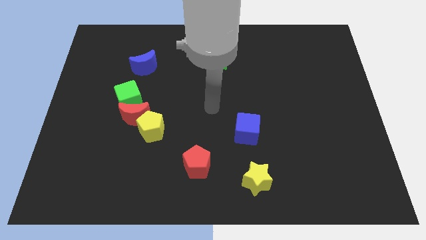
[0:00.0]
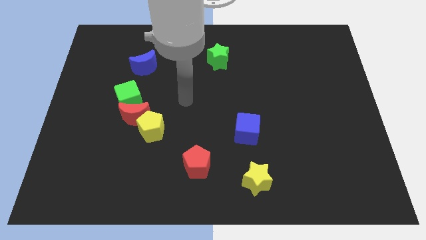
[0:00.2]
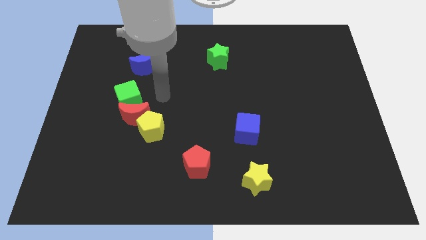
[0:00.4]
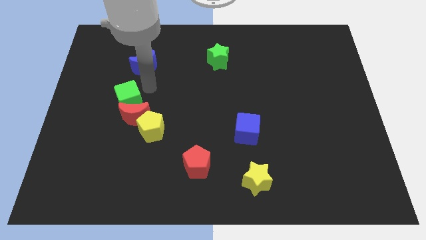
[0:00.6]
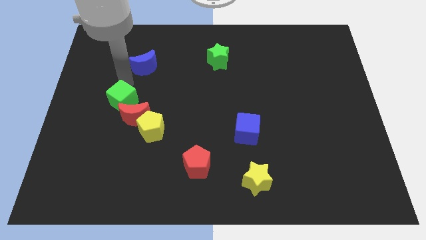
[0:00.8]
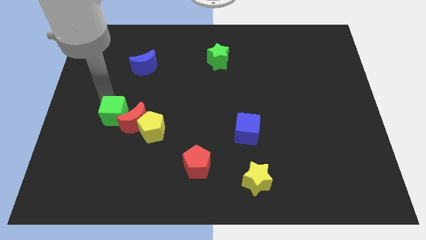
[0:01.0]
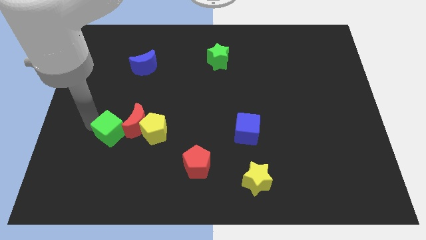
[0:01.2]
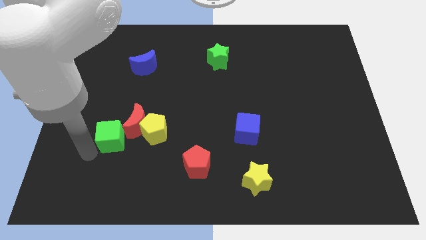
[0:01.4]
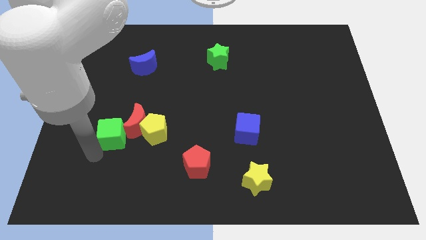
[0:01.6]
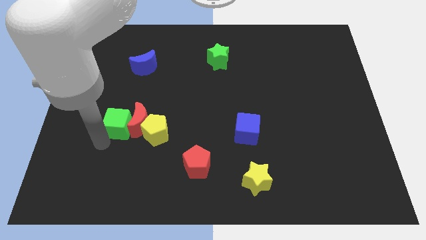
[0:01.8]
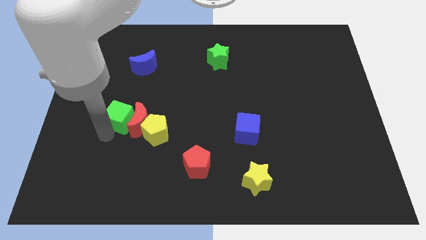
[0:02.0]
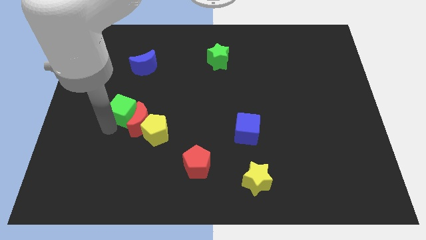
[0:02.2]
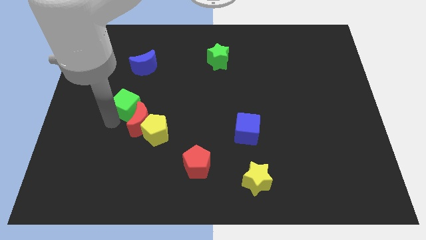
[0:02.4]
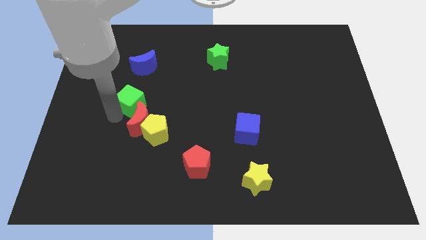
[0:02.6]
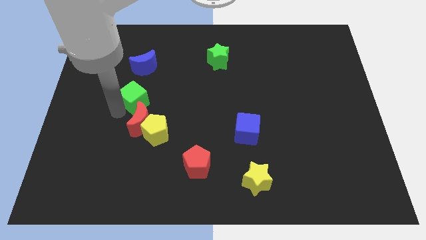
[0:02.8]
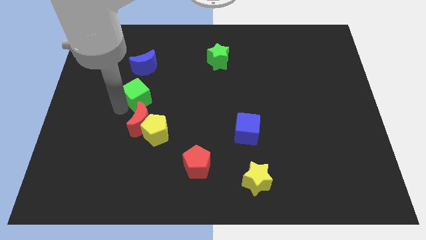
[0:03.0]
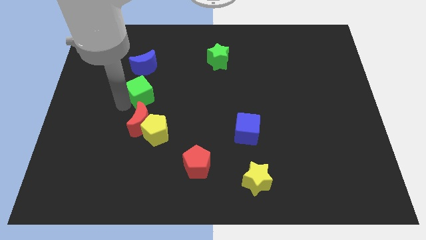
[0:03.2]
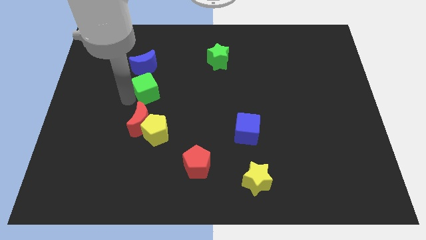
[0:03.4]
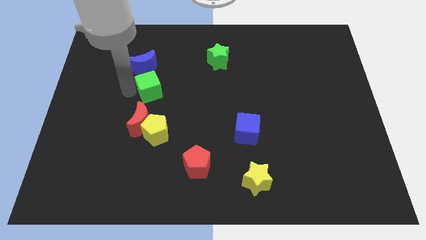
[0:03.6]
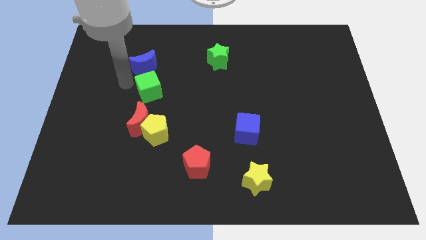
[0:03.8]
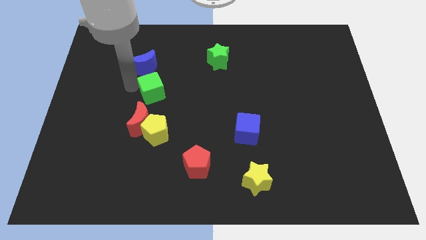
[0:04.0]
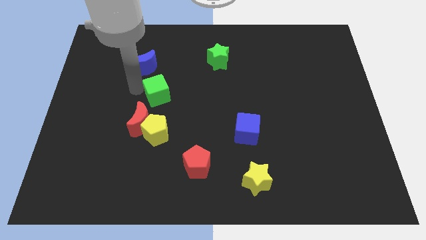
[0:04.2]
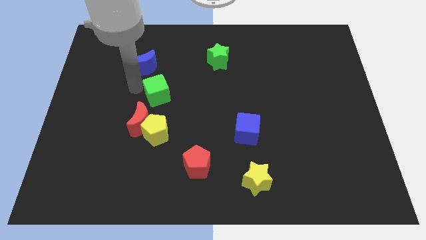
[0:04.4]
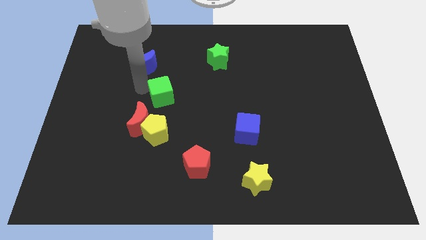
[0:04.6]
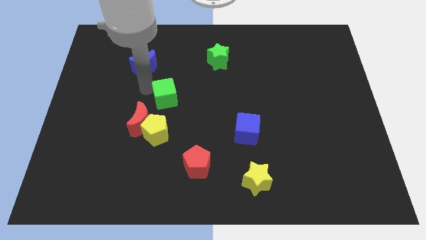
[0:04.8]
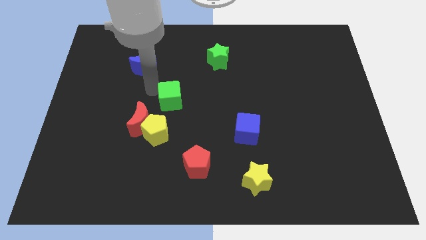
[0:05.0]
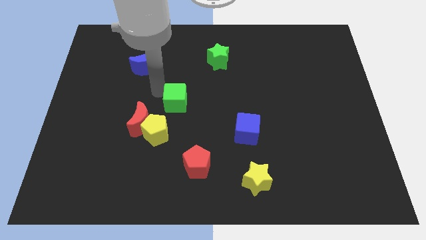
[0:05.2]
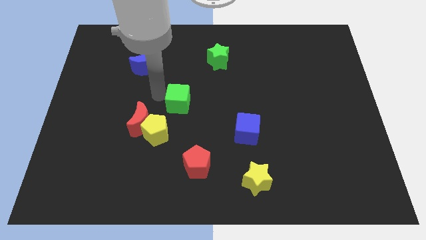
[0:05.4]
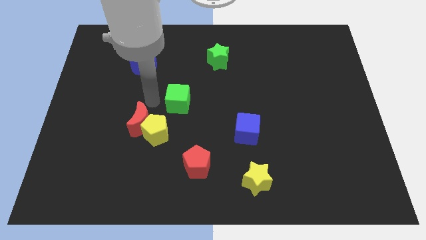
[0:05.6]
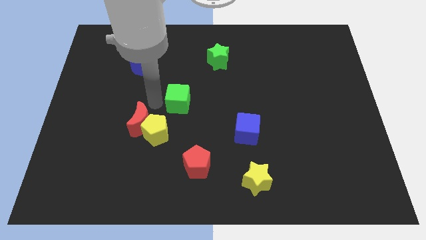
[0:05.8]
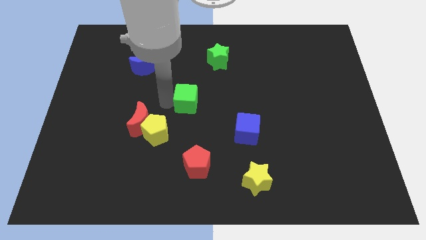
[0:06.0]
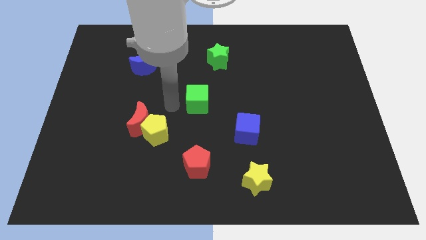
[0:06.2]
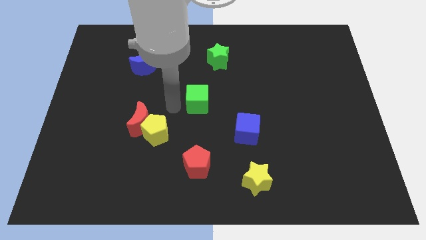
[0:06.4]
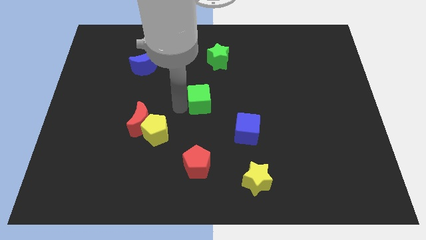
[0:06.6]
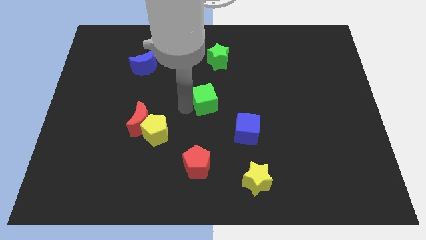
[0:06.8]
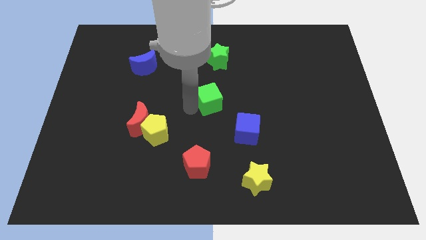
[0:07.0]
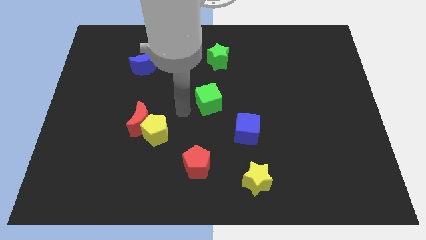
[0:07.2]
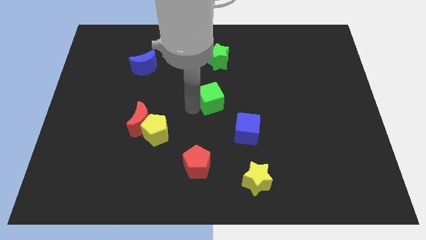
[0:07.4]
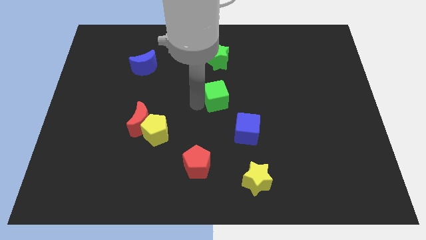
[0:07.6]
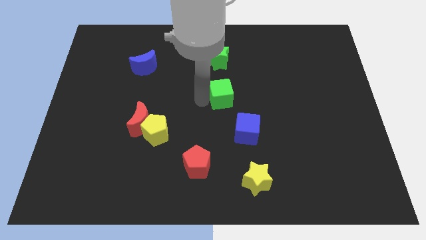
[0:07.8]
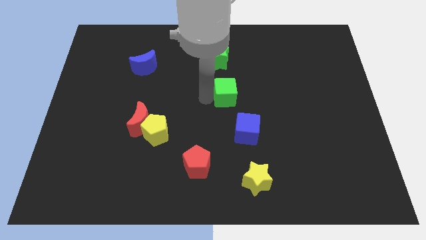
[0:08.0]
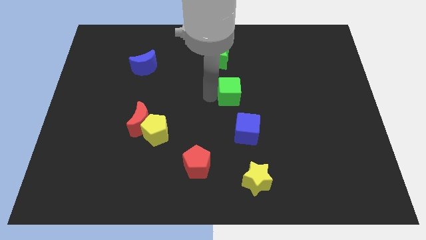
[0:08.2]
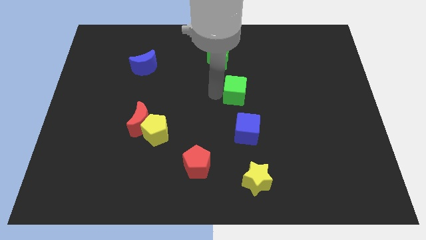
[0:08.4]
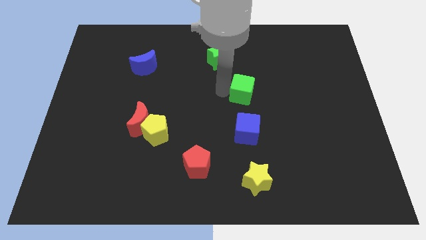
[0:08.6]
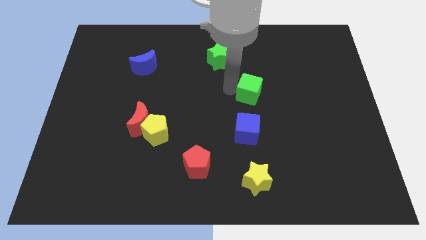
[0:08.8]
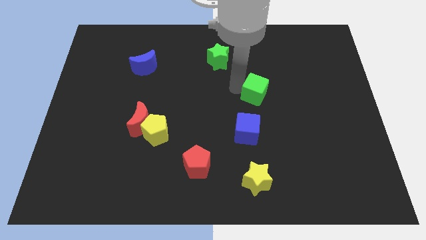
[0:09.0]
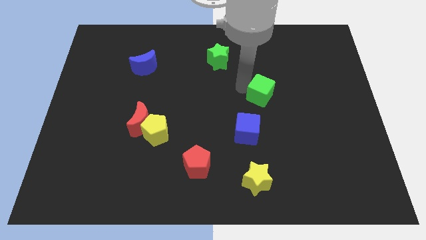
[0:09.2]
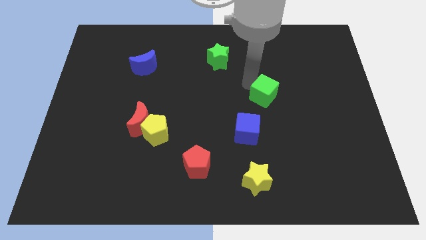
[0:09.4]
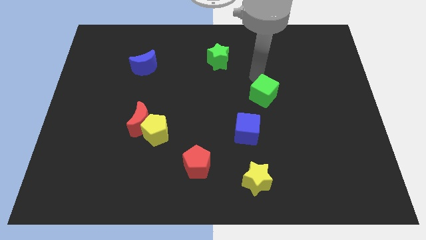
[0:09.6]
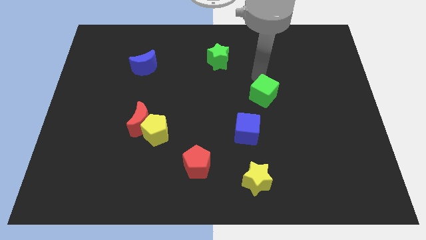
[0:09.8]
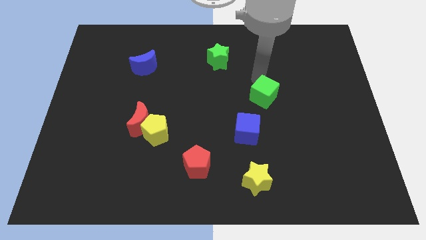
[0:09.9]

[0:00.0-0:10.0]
move the green cube to the top right side of the blue cube

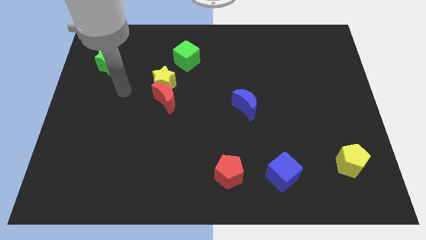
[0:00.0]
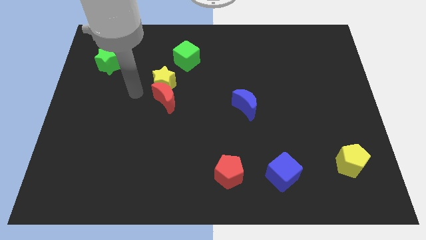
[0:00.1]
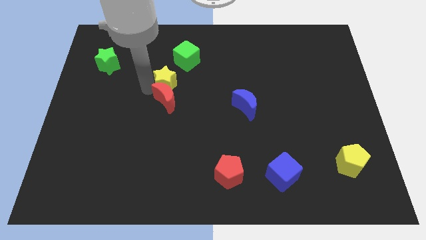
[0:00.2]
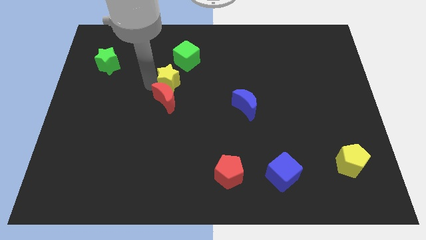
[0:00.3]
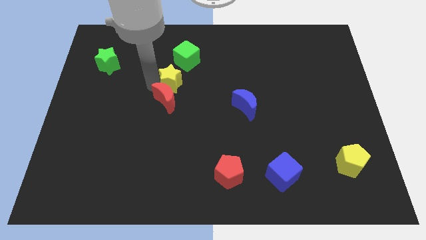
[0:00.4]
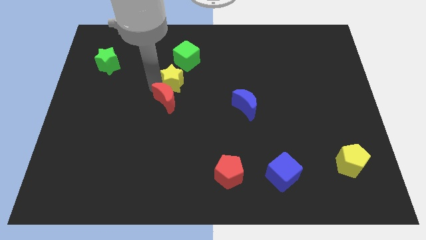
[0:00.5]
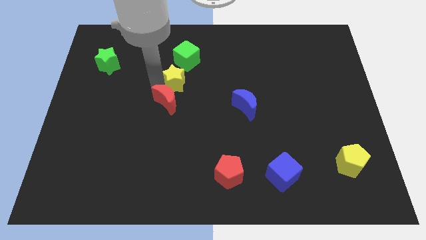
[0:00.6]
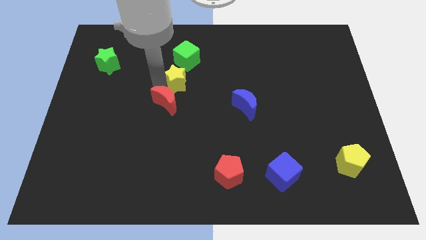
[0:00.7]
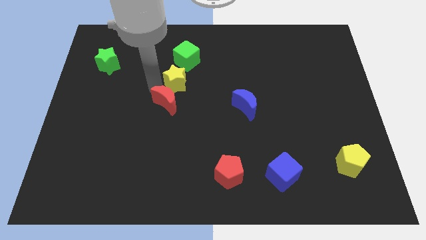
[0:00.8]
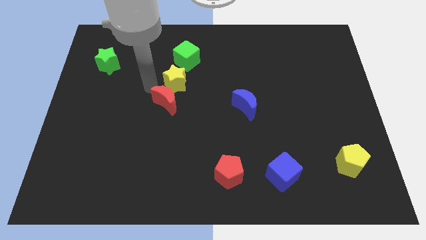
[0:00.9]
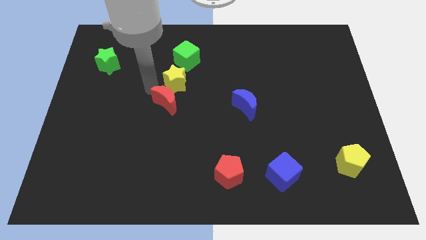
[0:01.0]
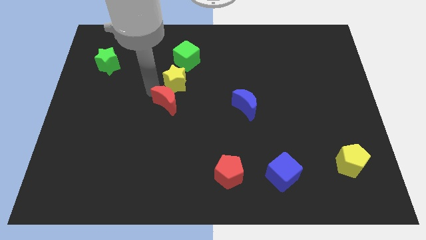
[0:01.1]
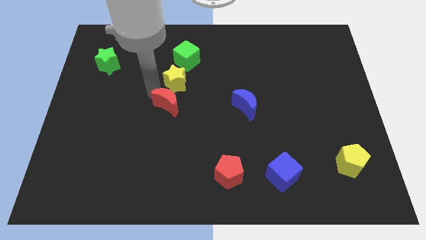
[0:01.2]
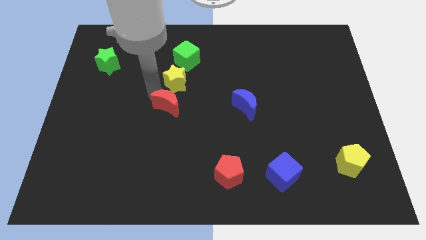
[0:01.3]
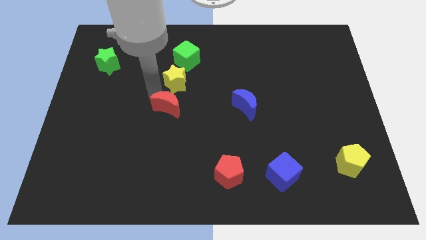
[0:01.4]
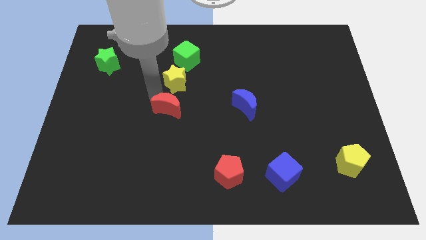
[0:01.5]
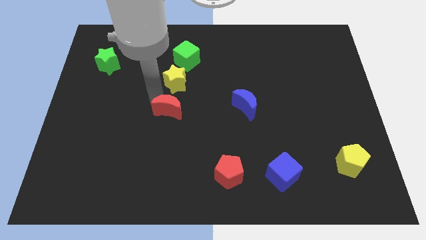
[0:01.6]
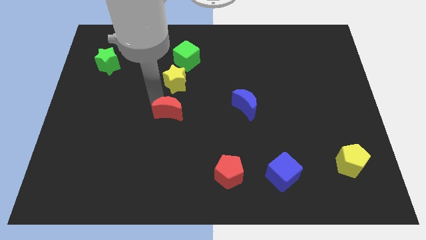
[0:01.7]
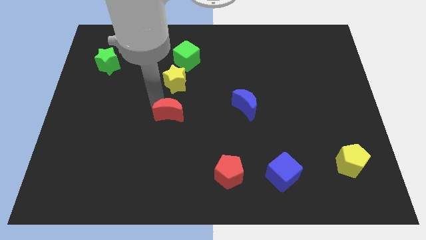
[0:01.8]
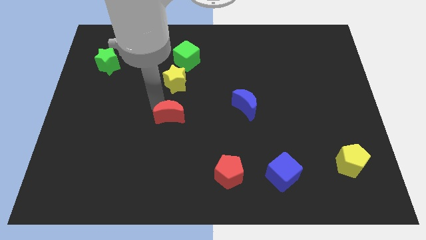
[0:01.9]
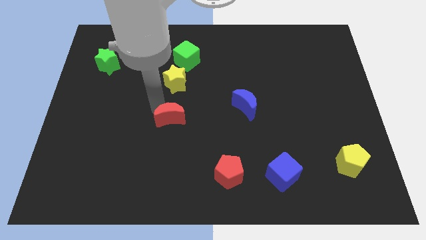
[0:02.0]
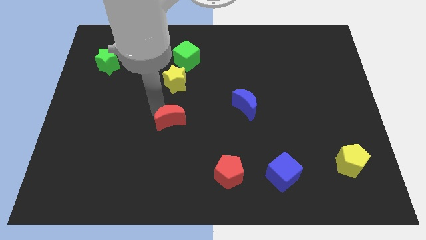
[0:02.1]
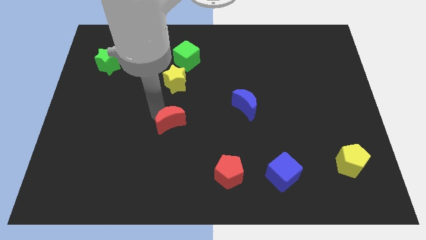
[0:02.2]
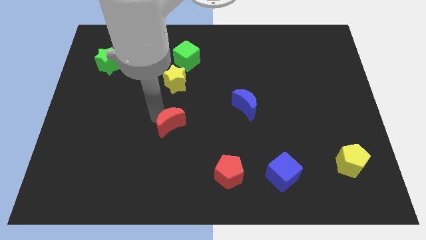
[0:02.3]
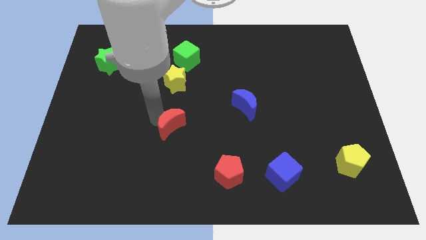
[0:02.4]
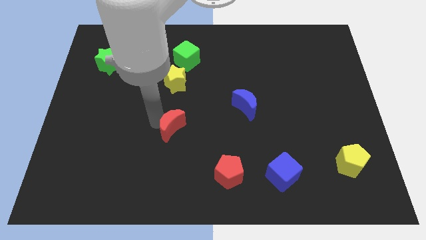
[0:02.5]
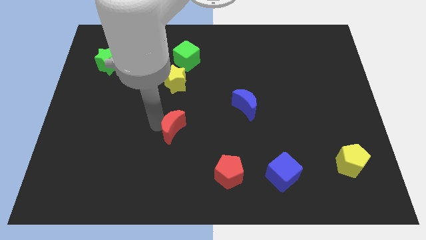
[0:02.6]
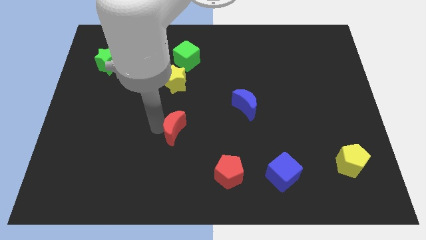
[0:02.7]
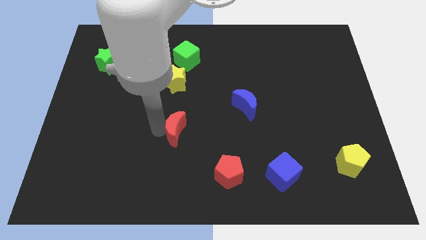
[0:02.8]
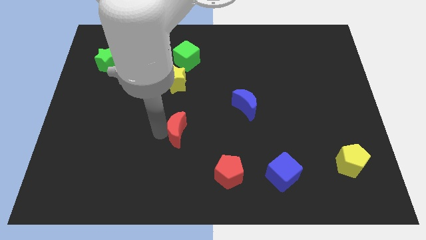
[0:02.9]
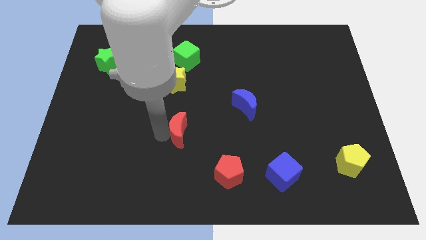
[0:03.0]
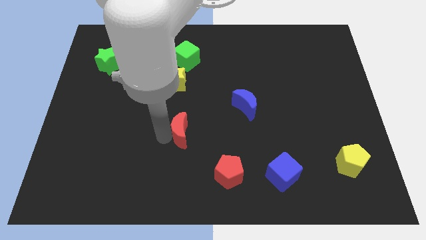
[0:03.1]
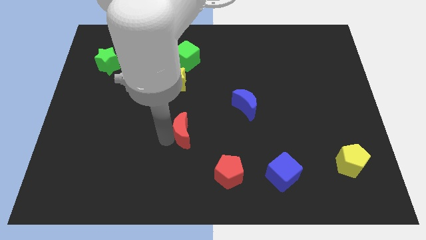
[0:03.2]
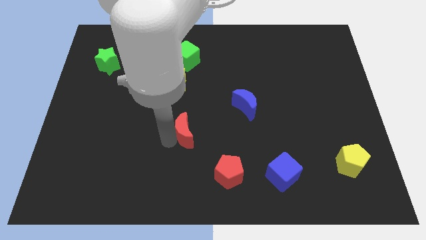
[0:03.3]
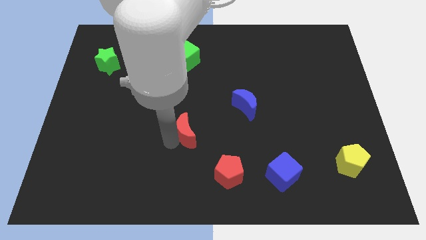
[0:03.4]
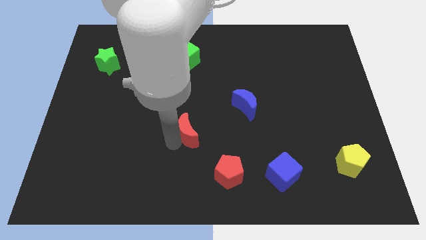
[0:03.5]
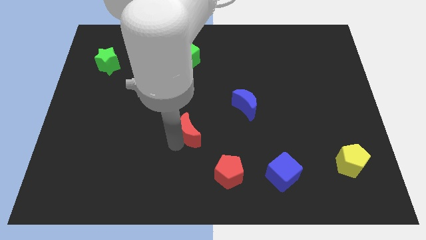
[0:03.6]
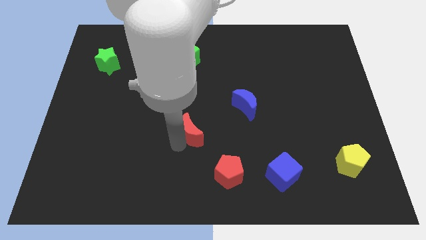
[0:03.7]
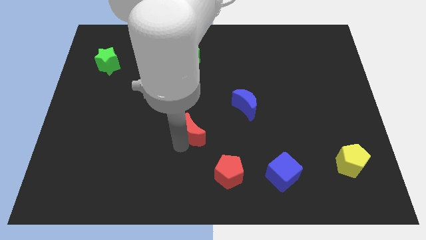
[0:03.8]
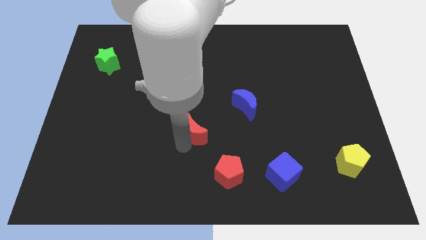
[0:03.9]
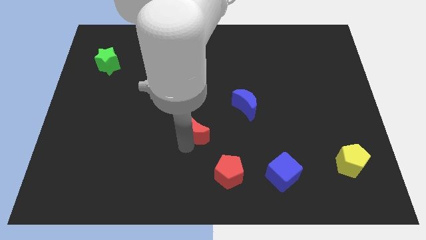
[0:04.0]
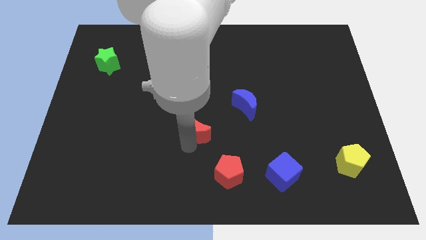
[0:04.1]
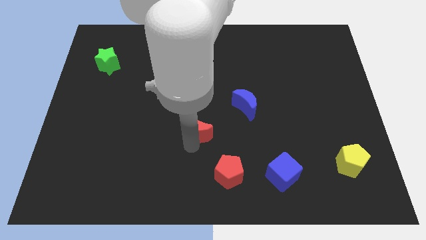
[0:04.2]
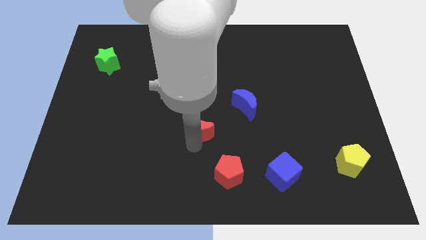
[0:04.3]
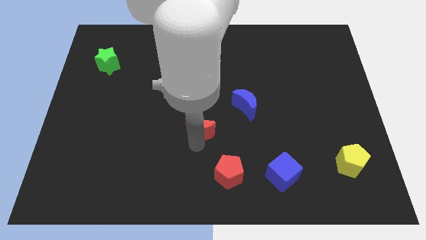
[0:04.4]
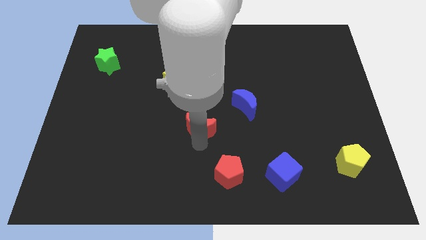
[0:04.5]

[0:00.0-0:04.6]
push the red moon diagonally down and to the left of the blue moon
